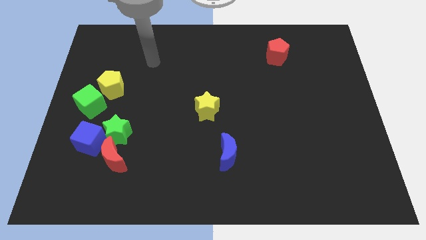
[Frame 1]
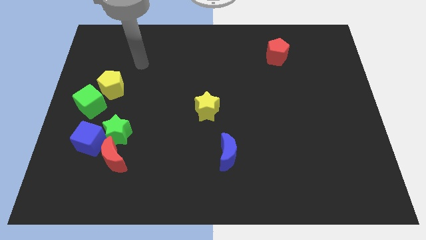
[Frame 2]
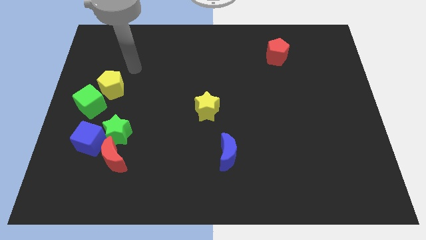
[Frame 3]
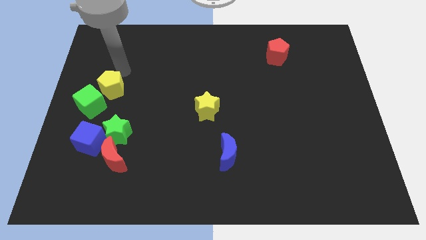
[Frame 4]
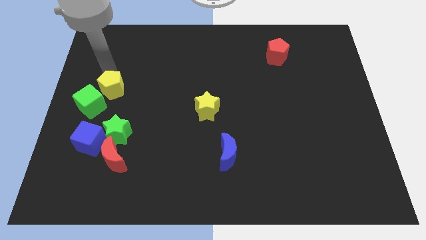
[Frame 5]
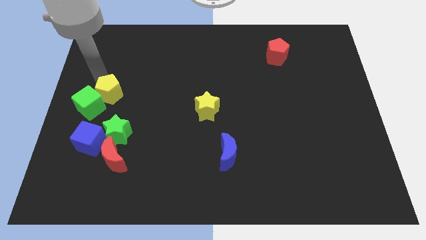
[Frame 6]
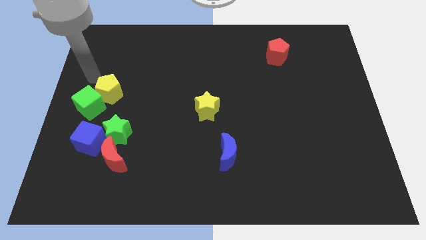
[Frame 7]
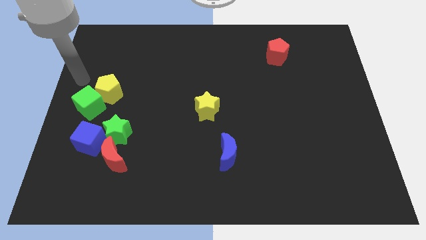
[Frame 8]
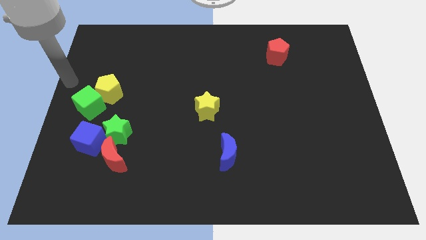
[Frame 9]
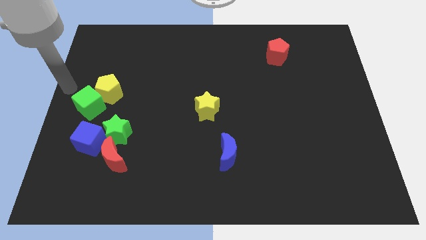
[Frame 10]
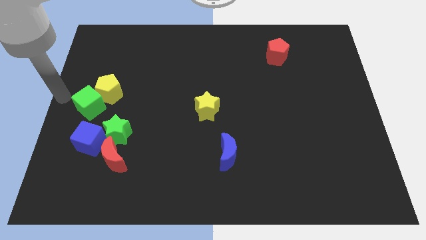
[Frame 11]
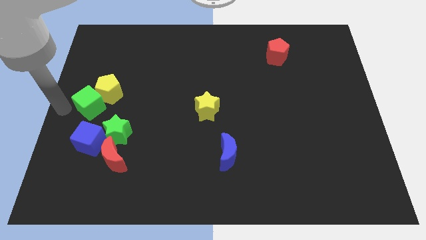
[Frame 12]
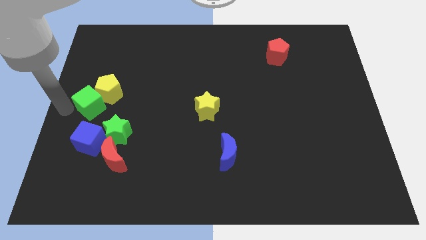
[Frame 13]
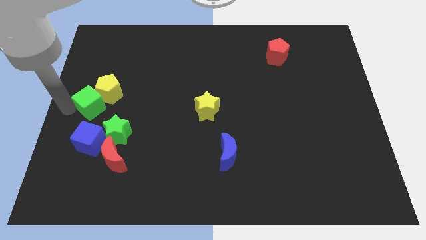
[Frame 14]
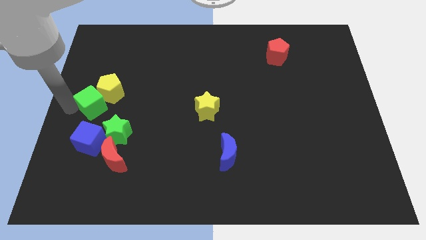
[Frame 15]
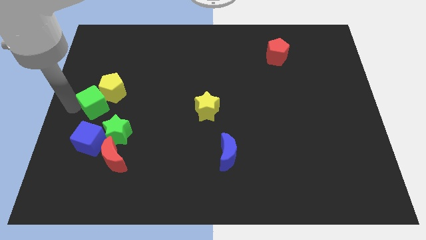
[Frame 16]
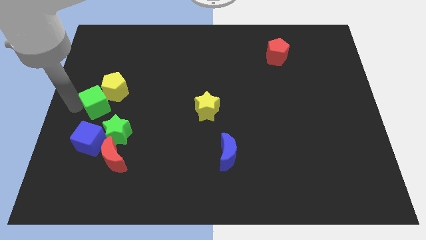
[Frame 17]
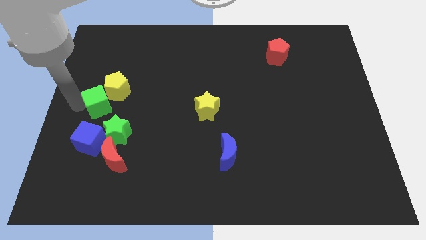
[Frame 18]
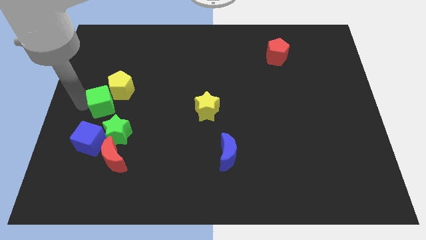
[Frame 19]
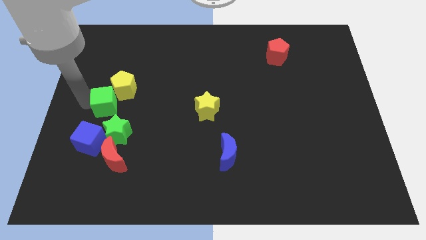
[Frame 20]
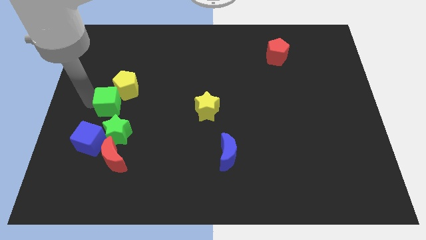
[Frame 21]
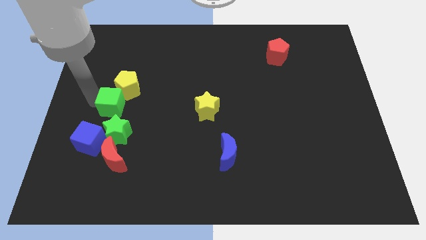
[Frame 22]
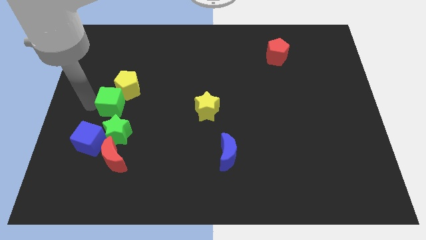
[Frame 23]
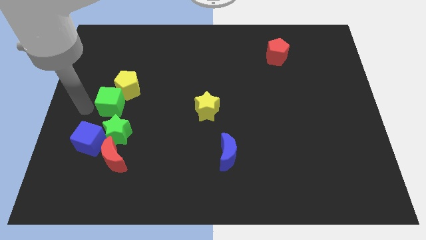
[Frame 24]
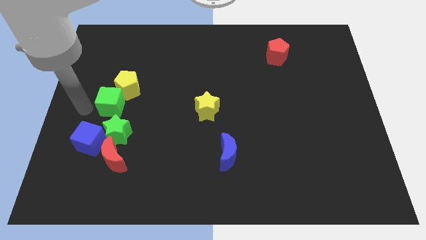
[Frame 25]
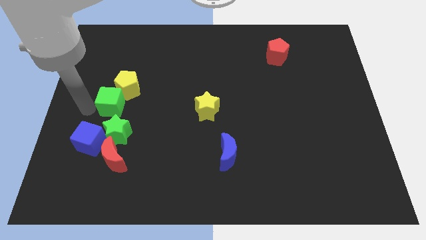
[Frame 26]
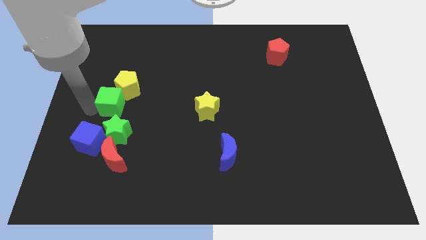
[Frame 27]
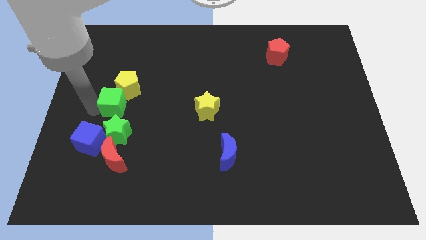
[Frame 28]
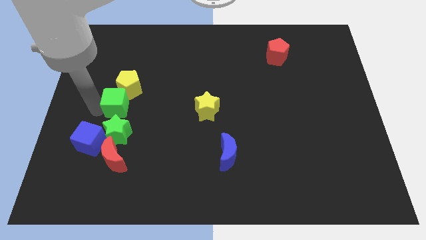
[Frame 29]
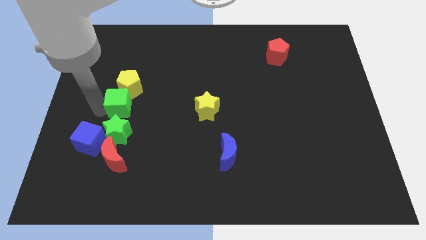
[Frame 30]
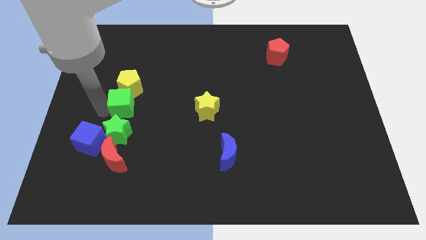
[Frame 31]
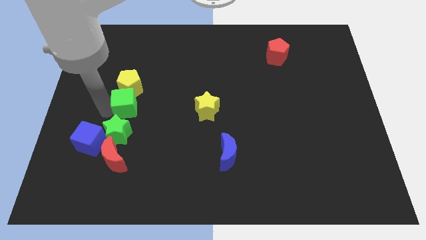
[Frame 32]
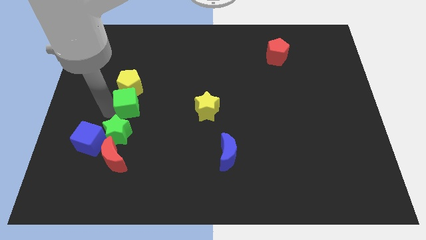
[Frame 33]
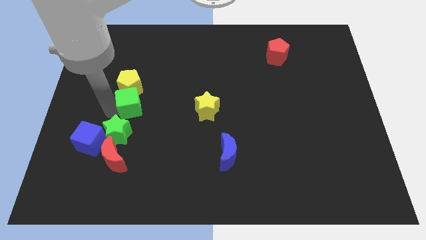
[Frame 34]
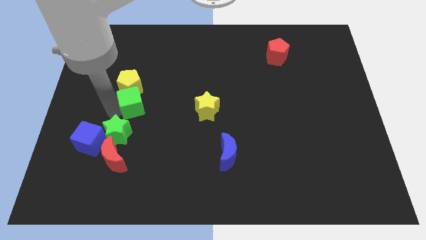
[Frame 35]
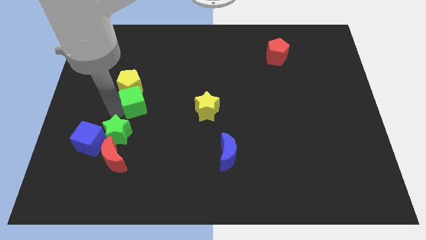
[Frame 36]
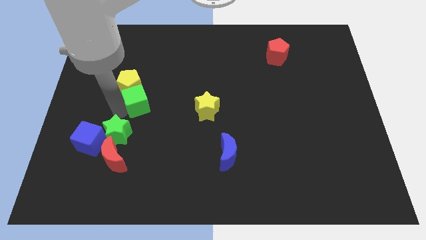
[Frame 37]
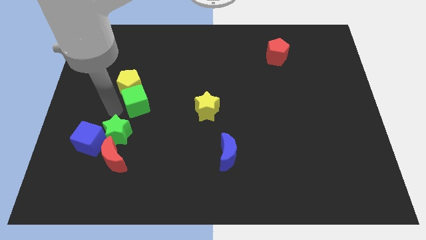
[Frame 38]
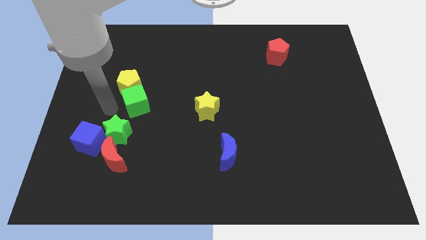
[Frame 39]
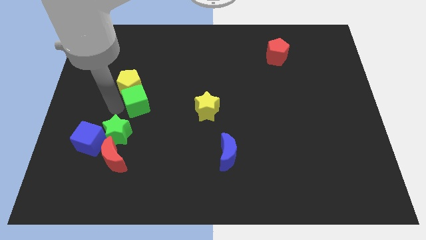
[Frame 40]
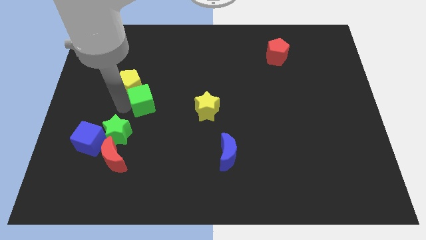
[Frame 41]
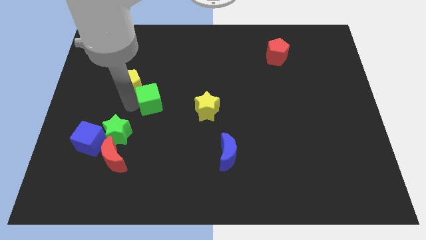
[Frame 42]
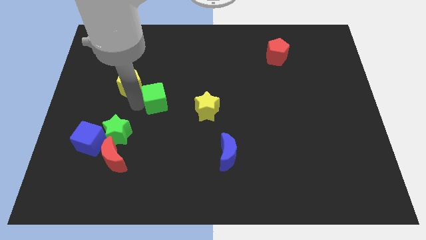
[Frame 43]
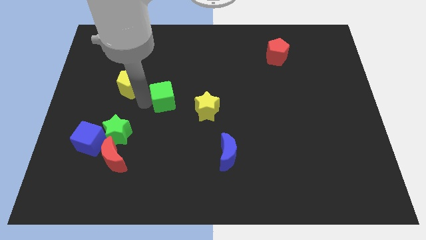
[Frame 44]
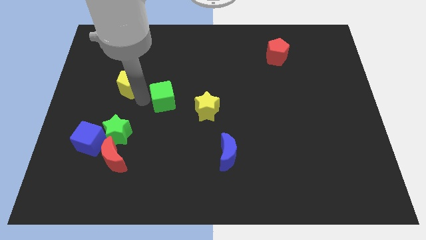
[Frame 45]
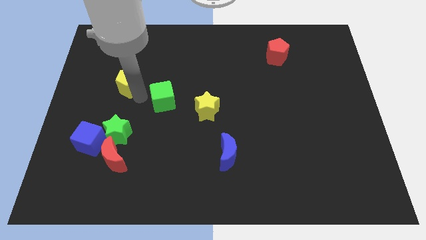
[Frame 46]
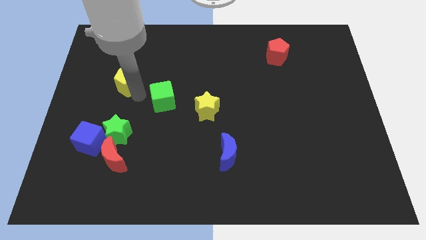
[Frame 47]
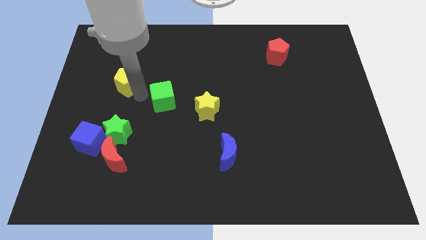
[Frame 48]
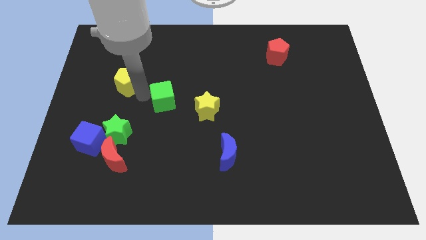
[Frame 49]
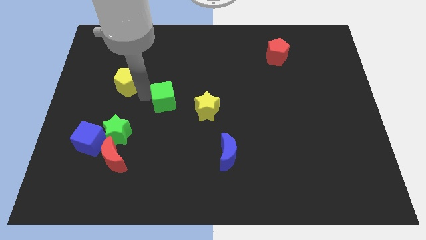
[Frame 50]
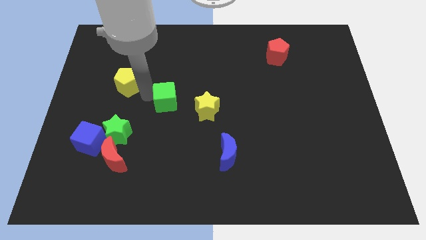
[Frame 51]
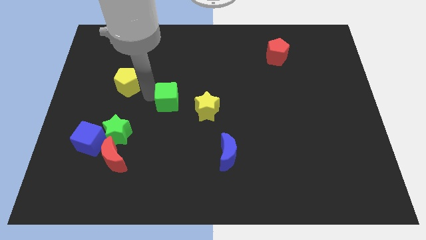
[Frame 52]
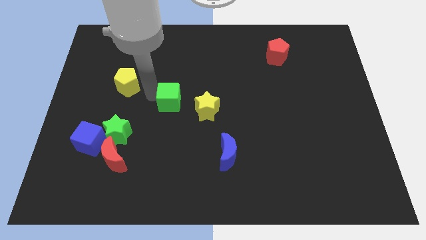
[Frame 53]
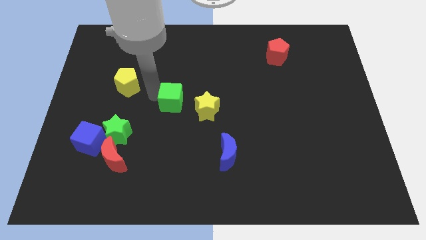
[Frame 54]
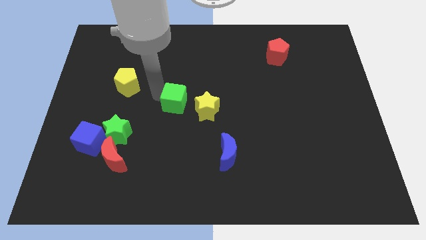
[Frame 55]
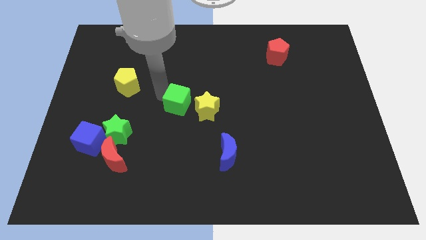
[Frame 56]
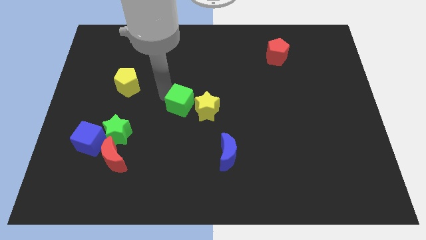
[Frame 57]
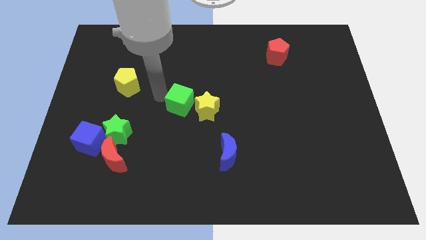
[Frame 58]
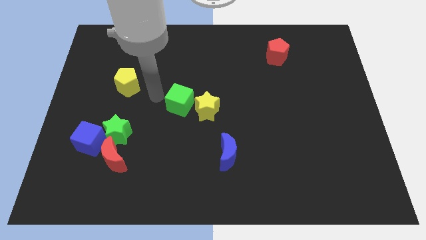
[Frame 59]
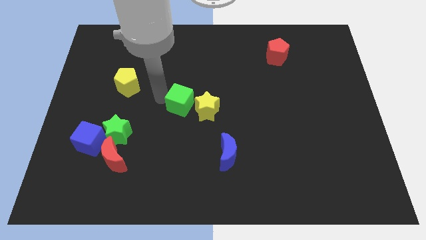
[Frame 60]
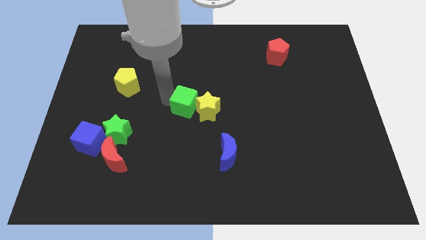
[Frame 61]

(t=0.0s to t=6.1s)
move the green cube to the yellow star
